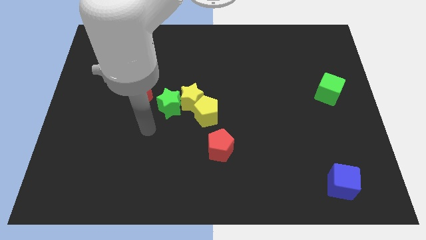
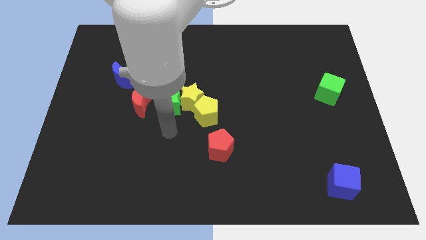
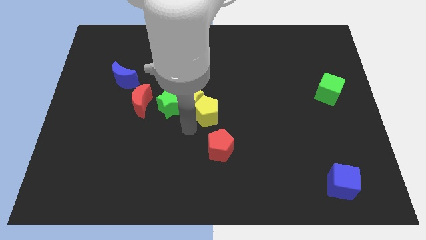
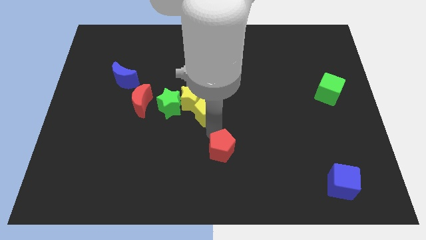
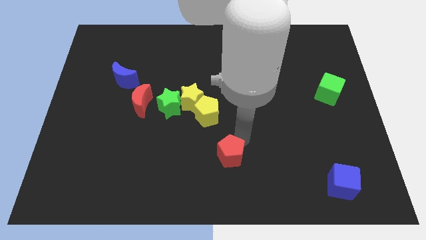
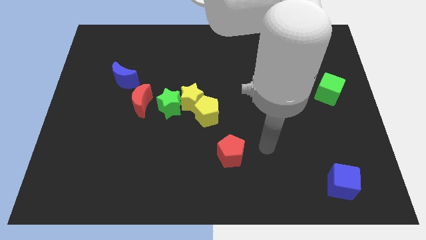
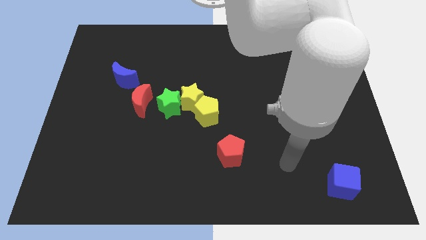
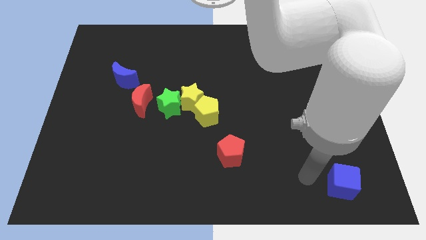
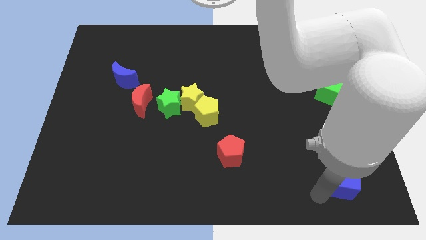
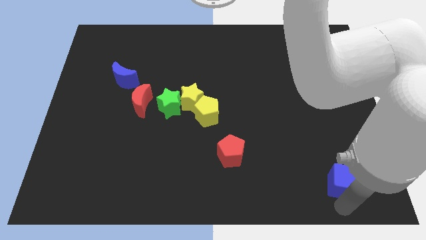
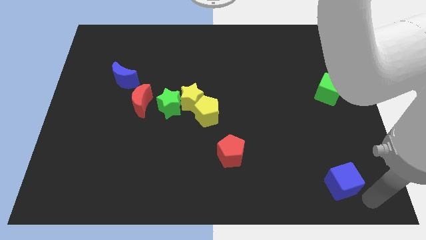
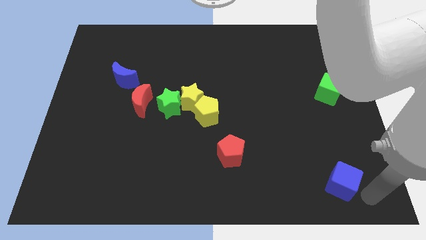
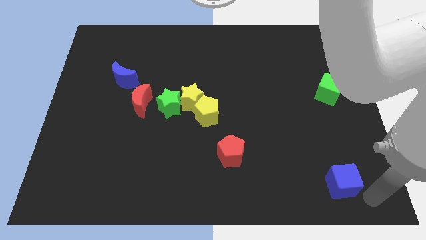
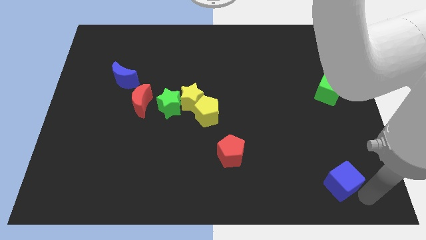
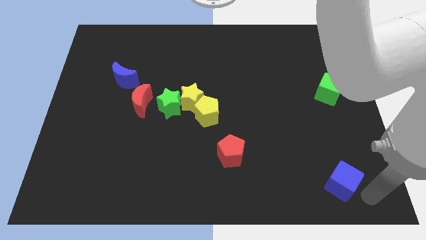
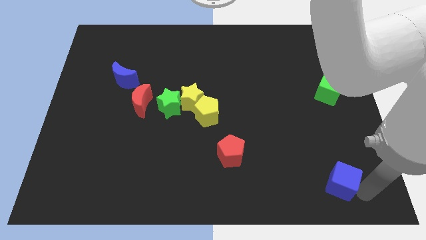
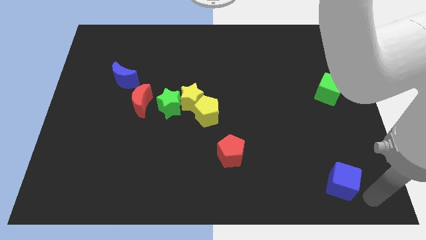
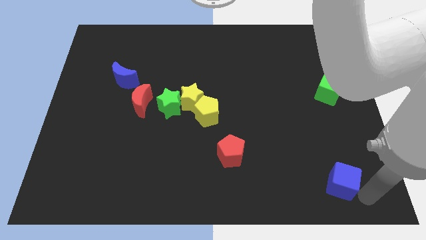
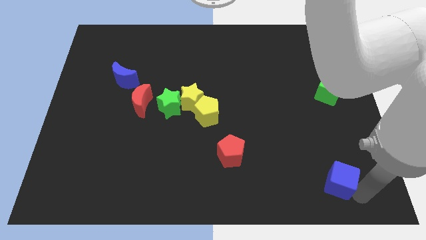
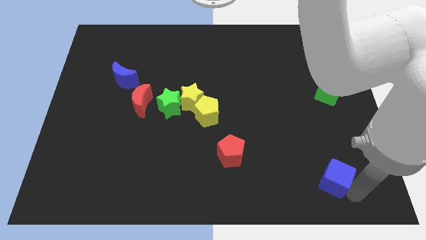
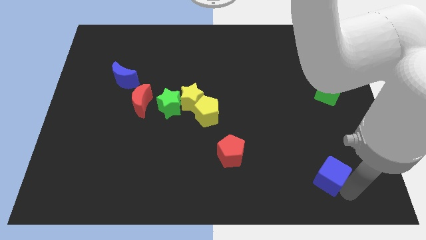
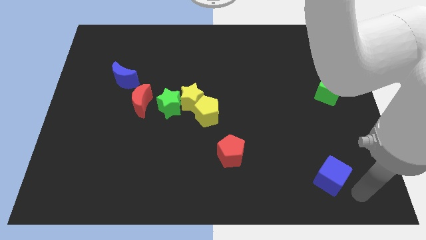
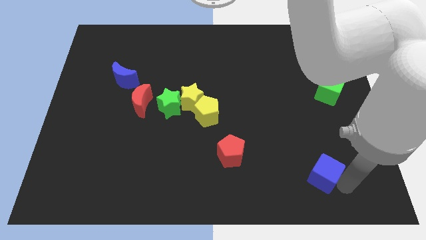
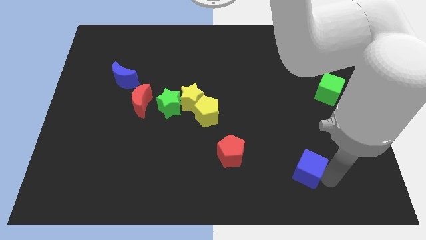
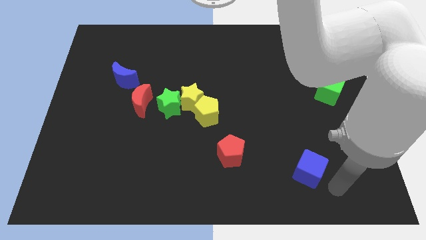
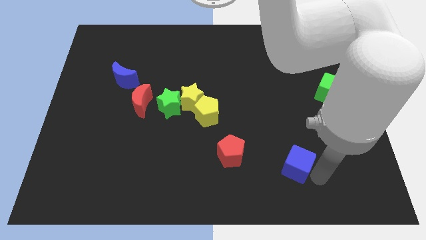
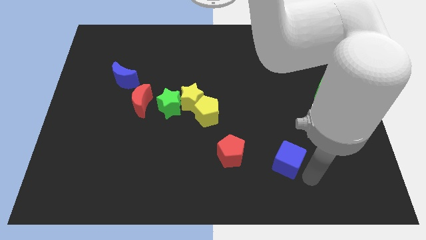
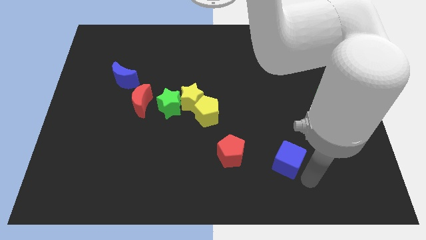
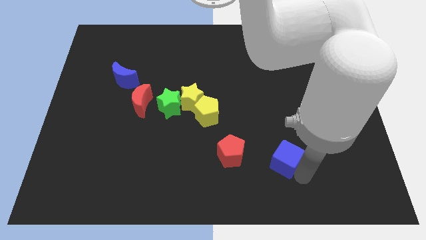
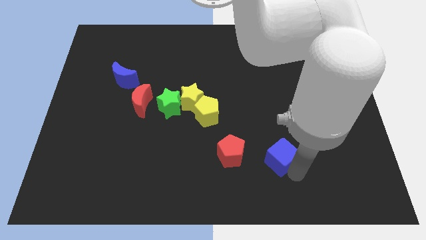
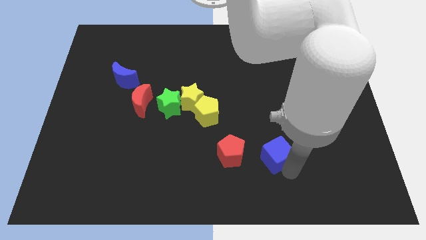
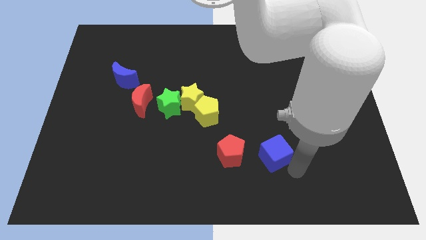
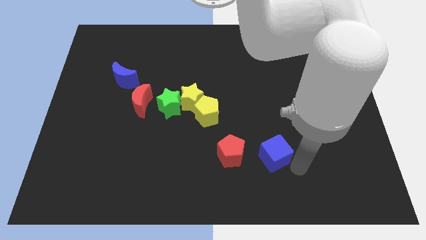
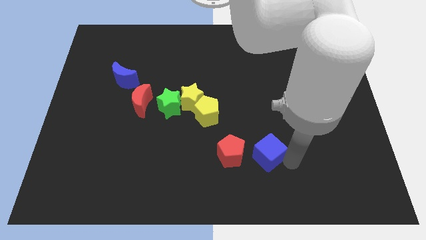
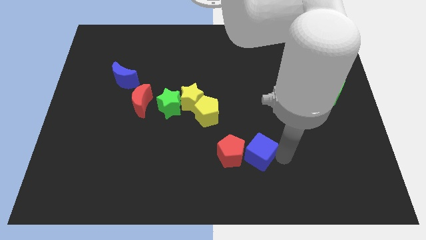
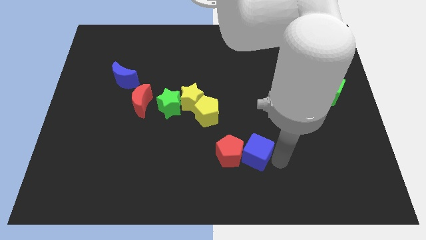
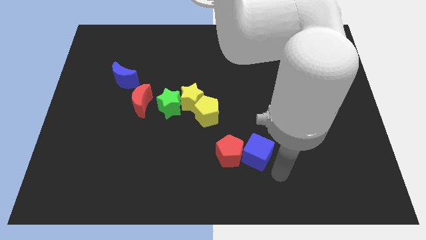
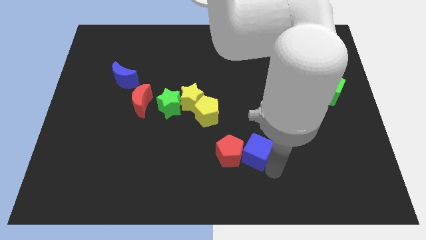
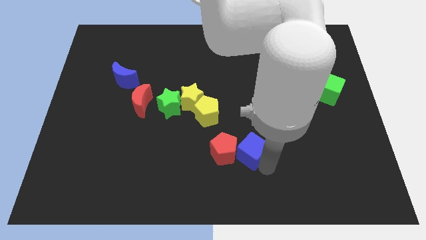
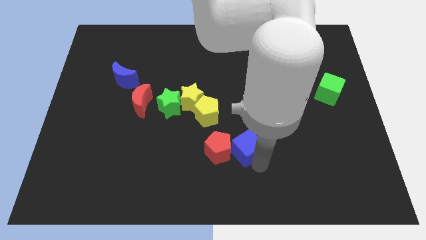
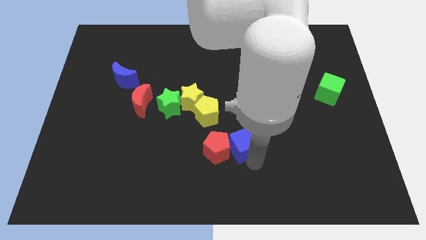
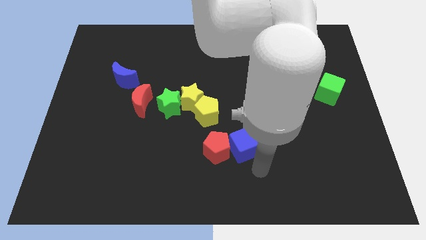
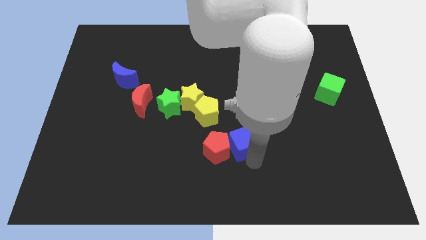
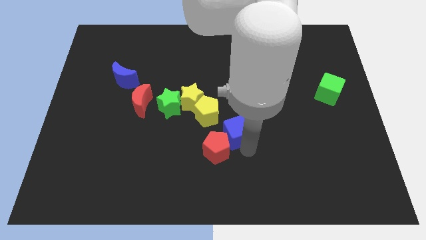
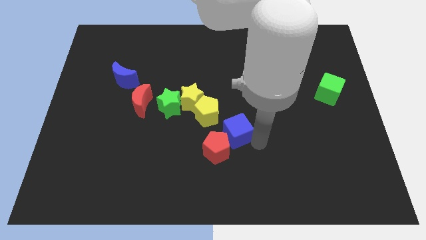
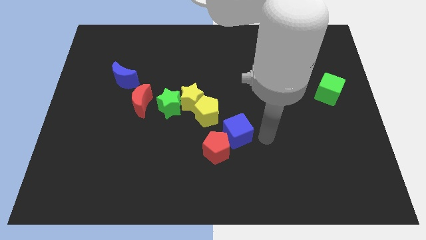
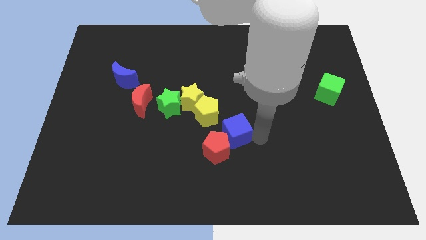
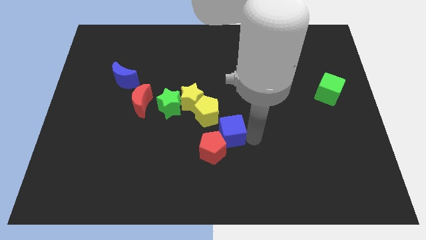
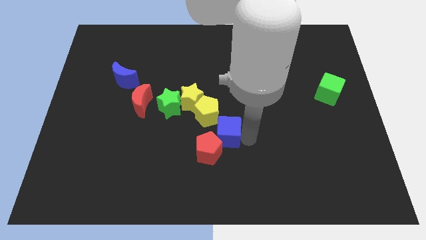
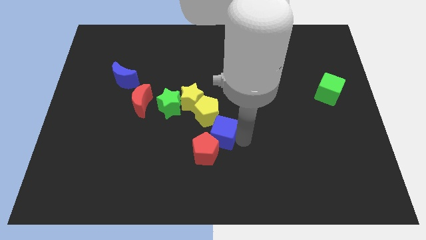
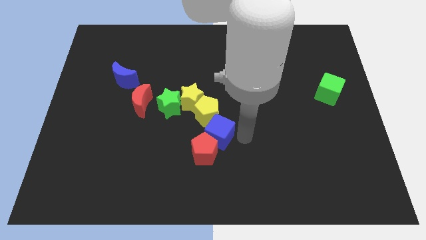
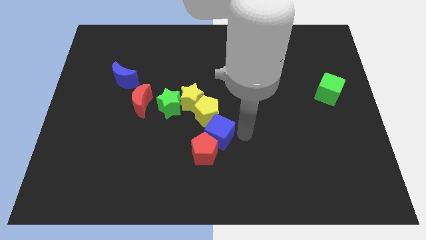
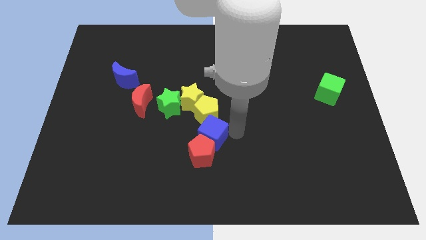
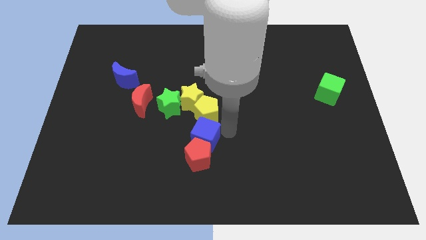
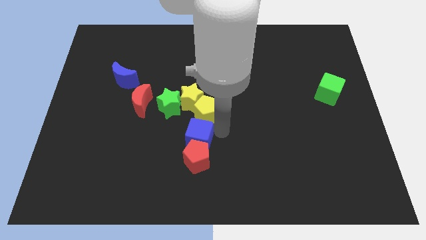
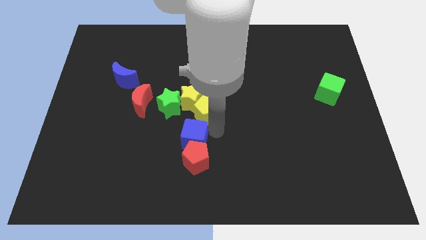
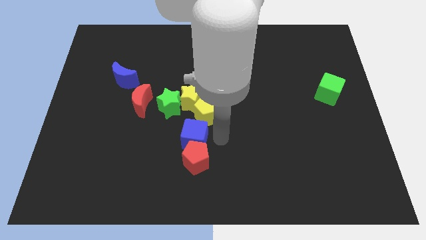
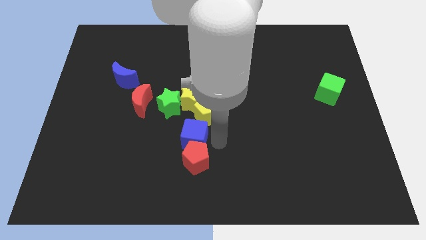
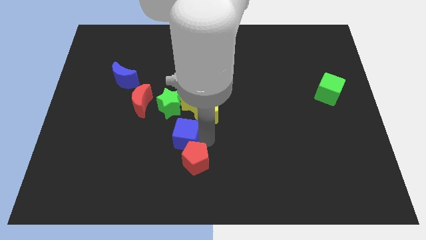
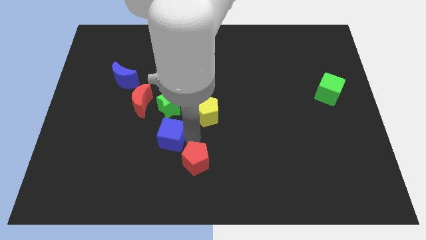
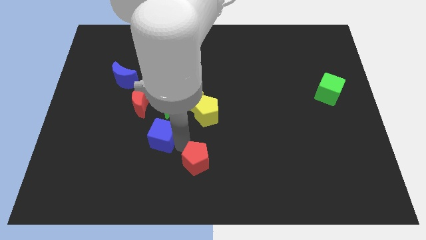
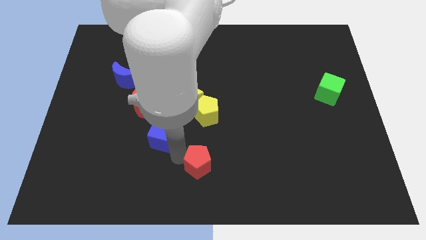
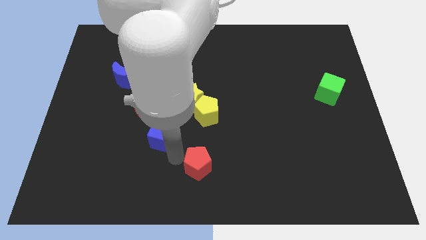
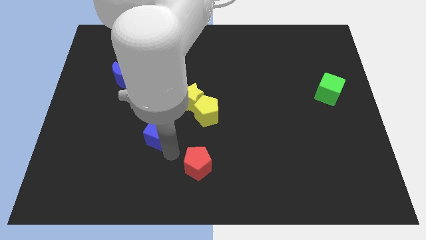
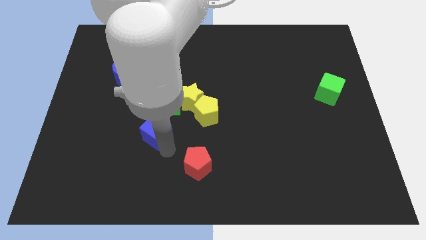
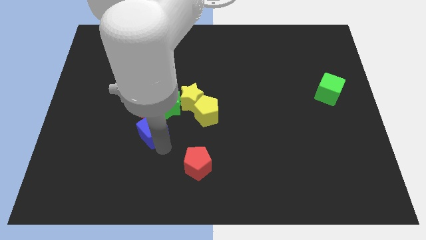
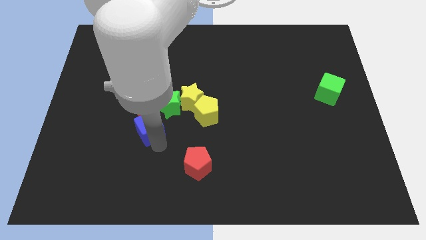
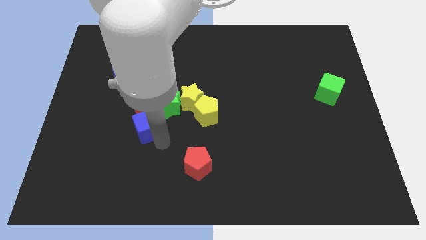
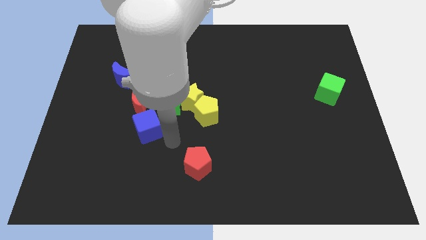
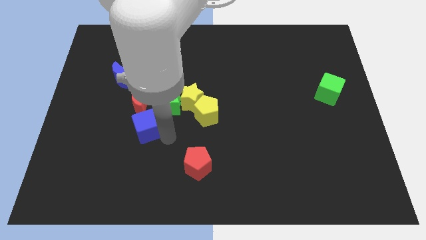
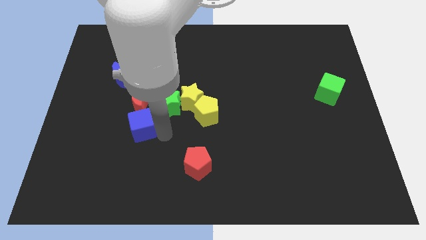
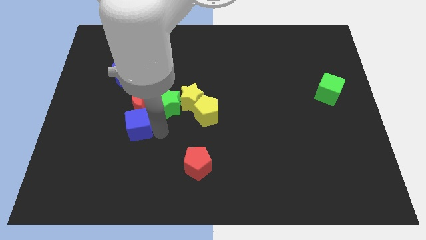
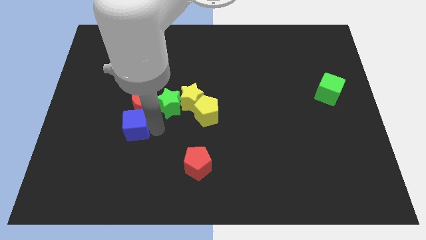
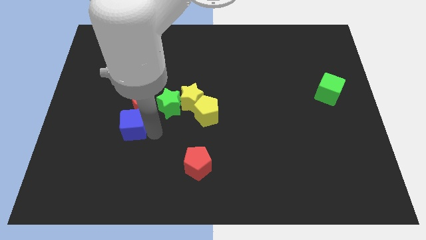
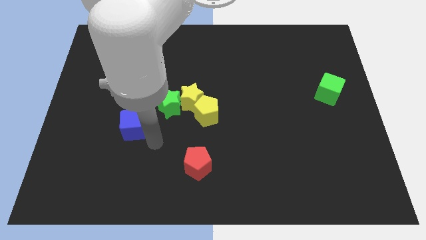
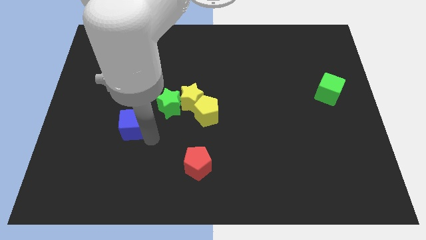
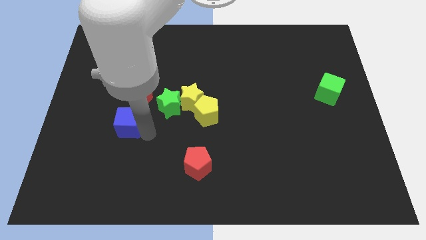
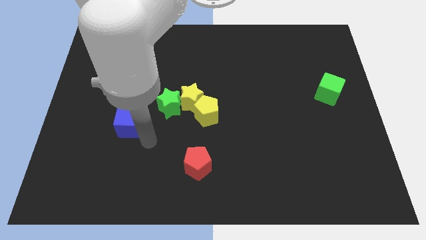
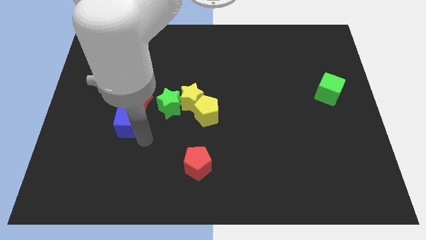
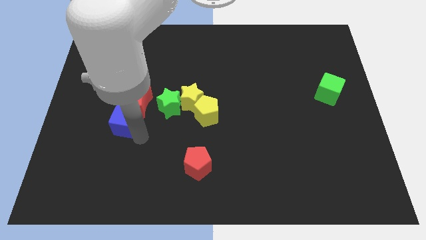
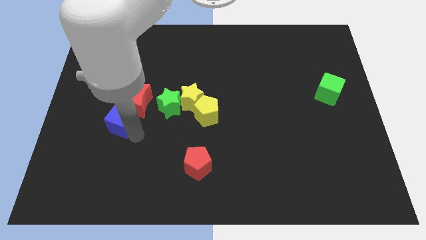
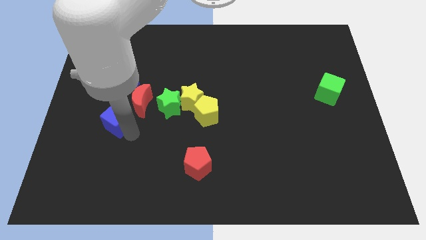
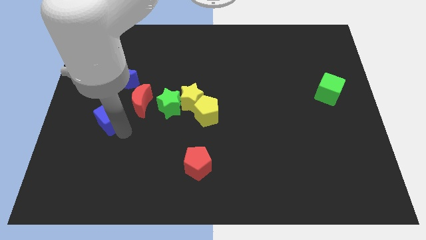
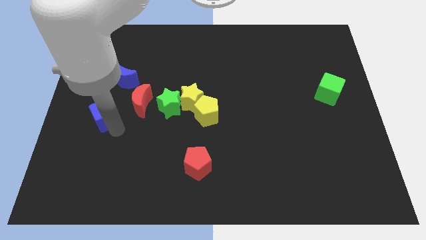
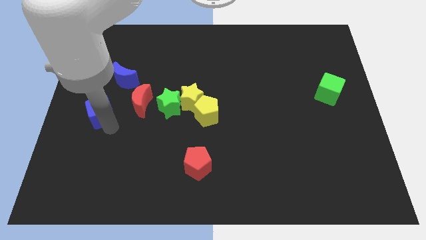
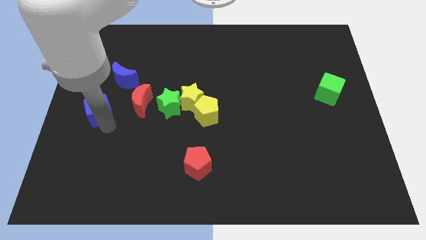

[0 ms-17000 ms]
put the blue cube diagonally down and to the left of the blue moon
